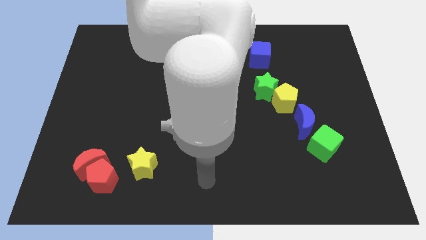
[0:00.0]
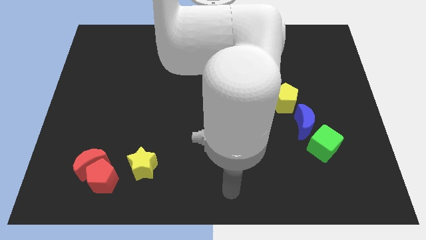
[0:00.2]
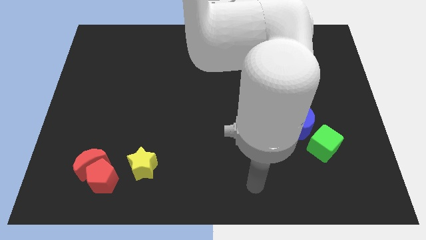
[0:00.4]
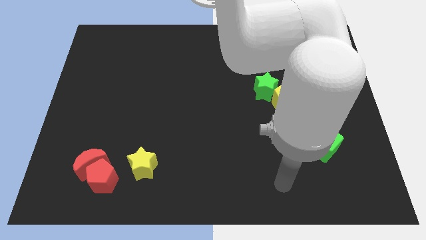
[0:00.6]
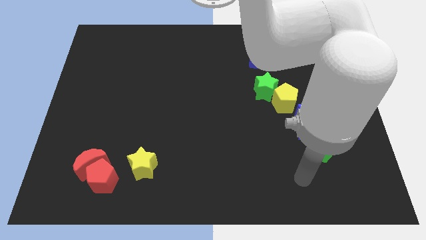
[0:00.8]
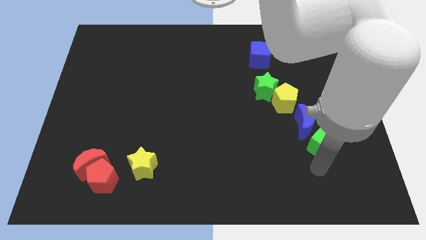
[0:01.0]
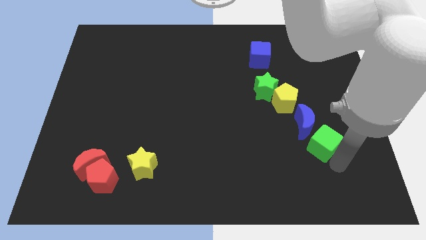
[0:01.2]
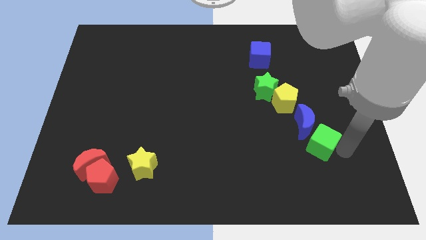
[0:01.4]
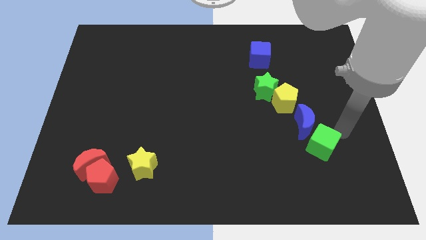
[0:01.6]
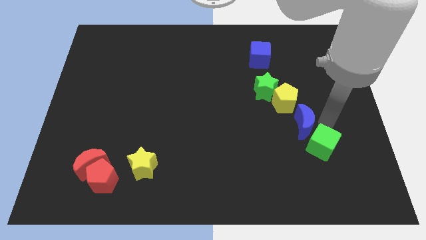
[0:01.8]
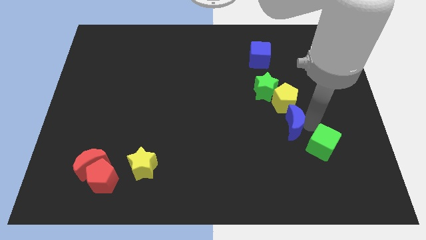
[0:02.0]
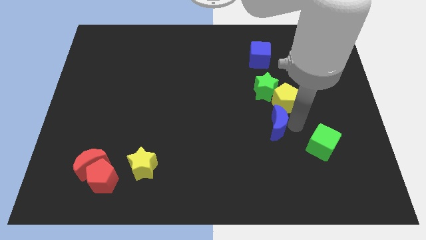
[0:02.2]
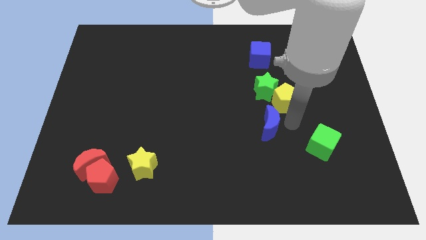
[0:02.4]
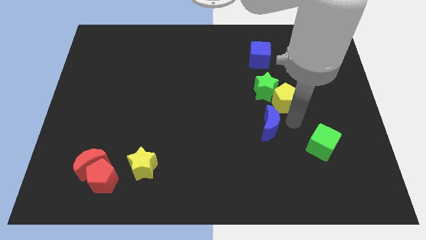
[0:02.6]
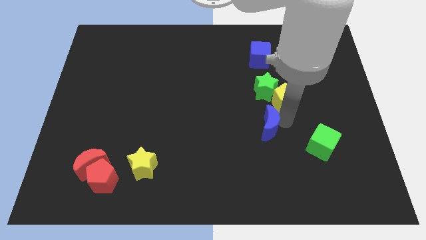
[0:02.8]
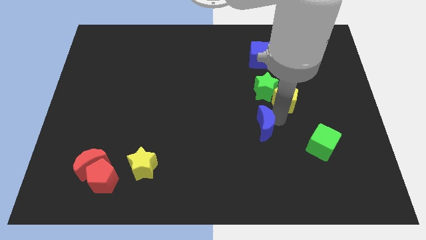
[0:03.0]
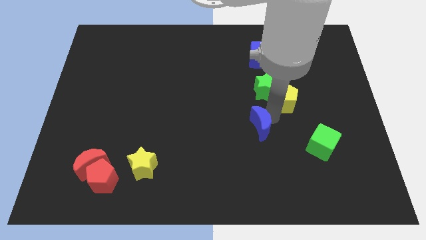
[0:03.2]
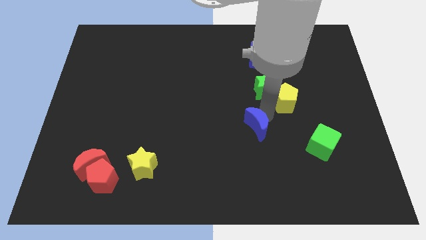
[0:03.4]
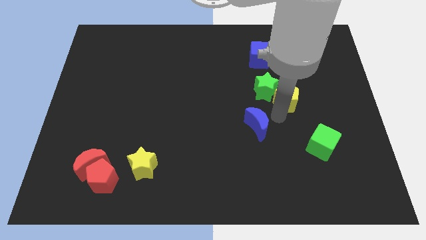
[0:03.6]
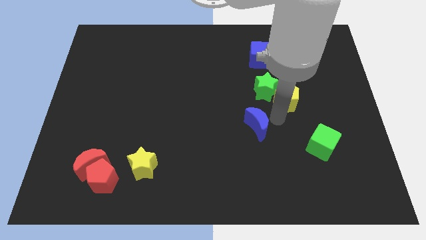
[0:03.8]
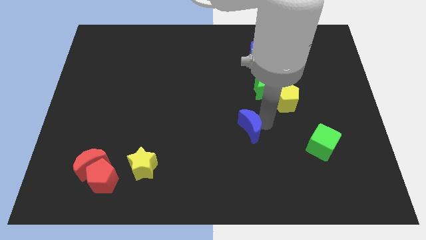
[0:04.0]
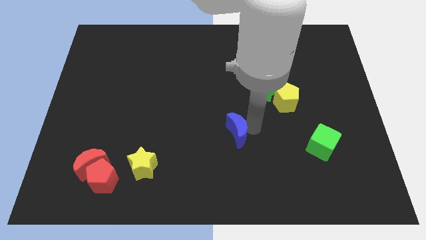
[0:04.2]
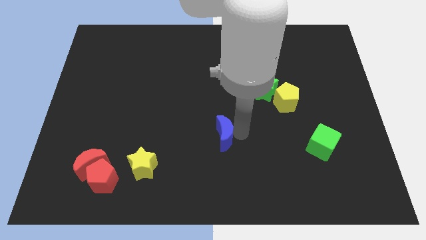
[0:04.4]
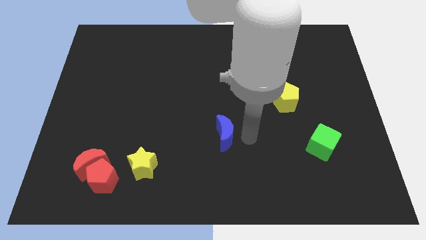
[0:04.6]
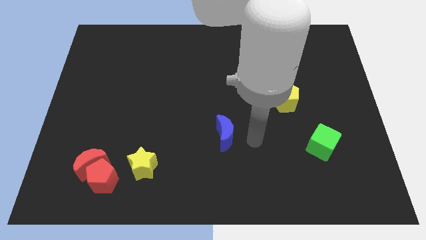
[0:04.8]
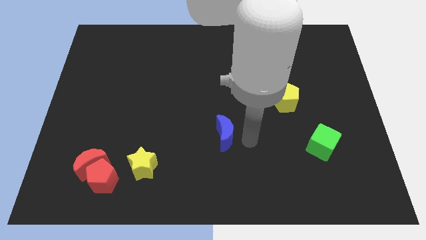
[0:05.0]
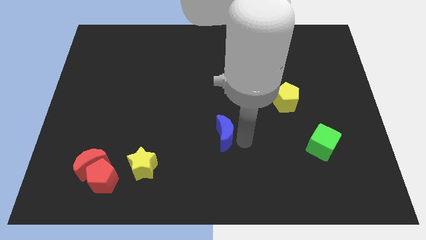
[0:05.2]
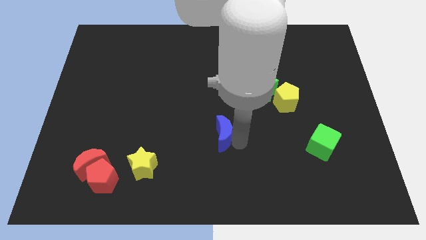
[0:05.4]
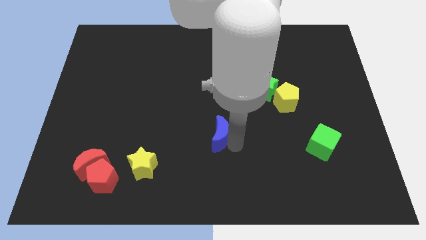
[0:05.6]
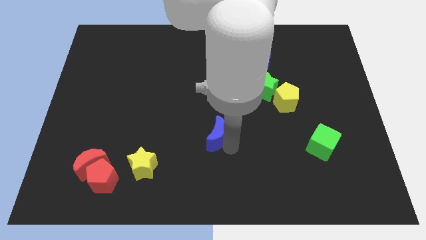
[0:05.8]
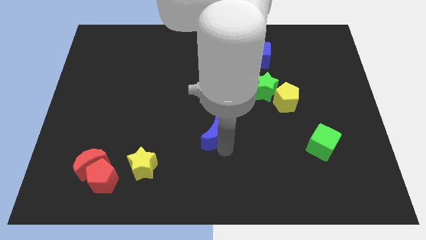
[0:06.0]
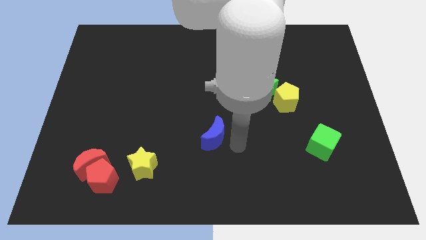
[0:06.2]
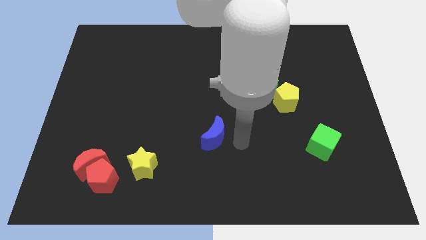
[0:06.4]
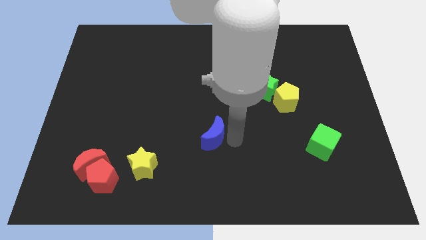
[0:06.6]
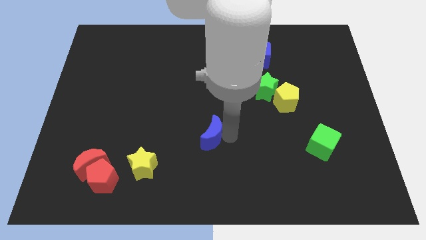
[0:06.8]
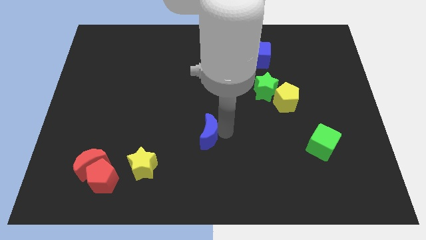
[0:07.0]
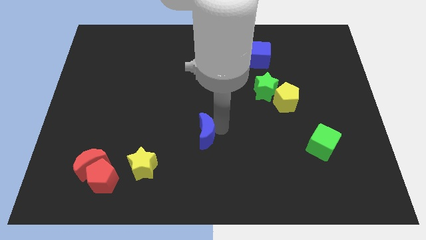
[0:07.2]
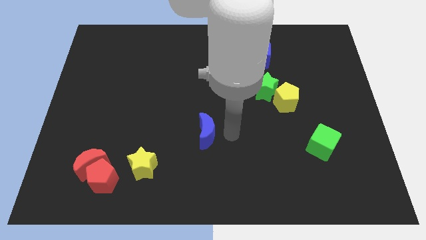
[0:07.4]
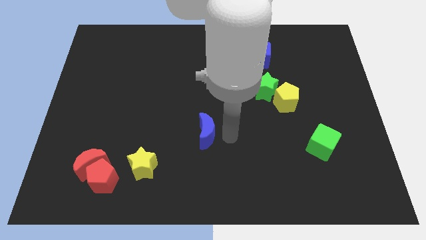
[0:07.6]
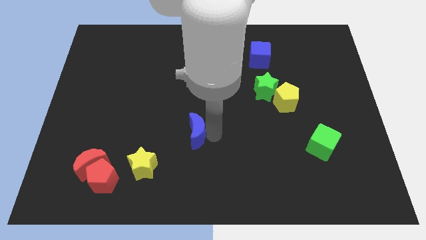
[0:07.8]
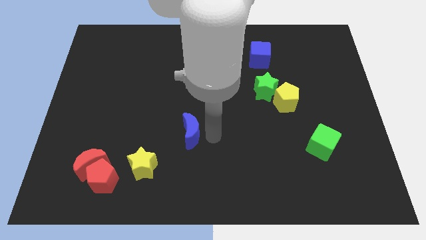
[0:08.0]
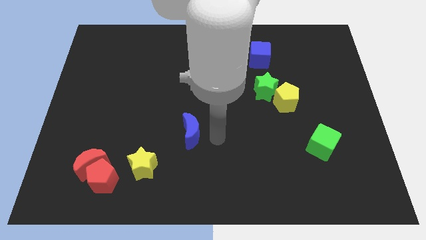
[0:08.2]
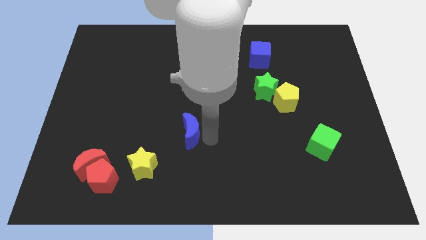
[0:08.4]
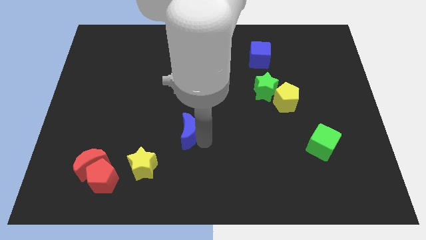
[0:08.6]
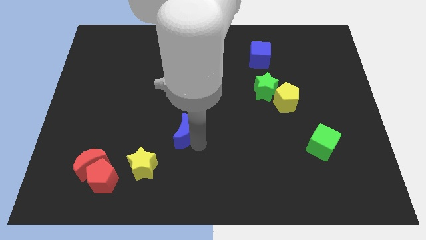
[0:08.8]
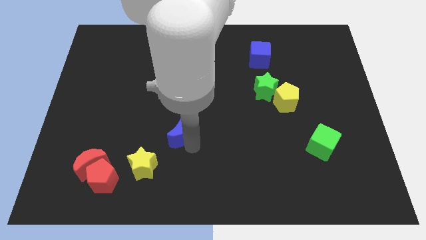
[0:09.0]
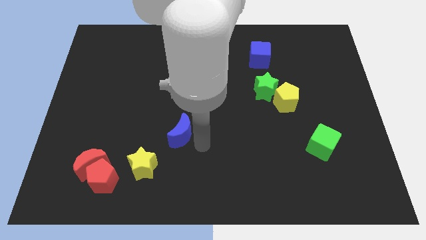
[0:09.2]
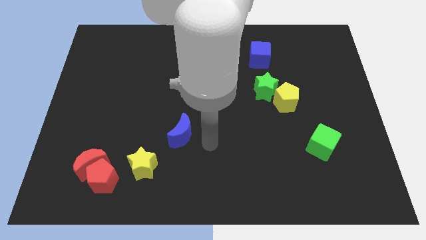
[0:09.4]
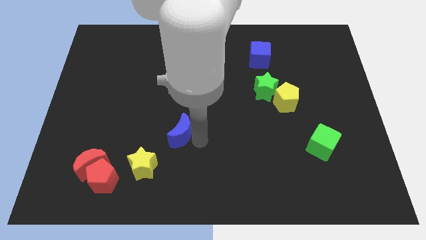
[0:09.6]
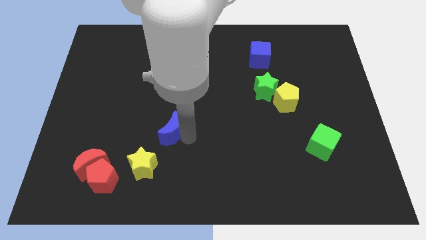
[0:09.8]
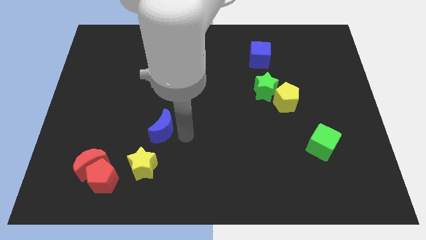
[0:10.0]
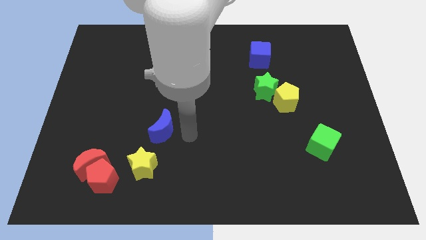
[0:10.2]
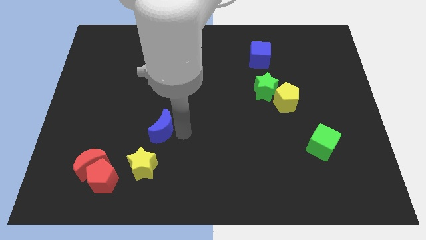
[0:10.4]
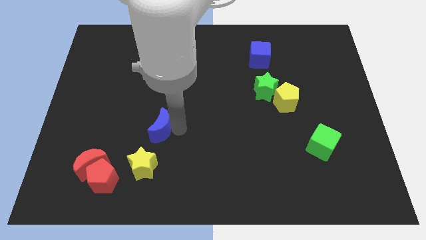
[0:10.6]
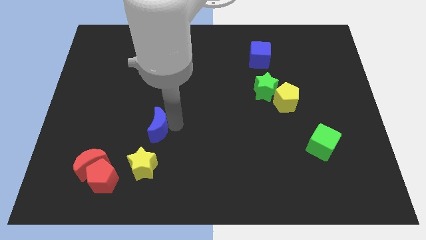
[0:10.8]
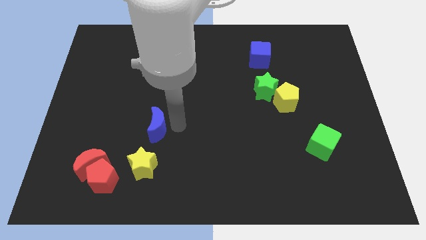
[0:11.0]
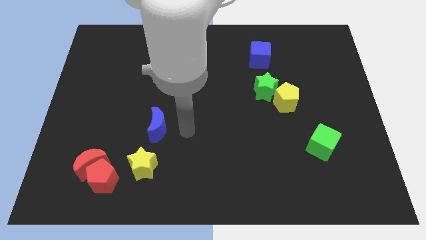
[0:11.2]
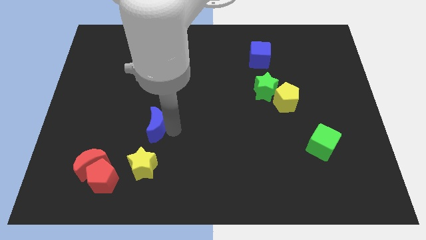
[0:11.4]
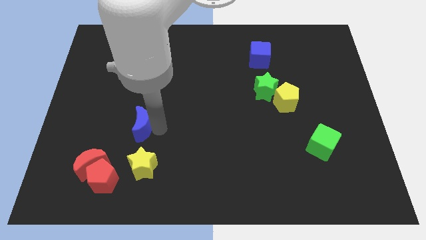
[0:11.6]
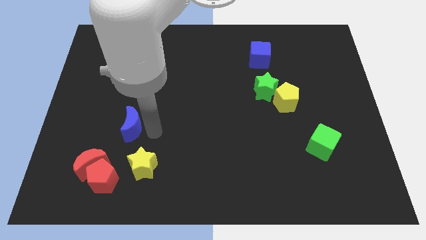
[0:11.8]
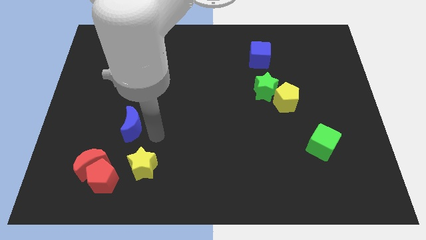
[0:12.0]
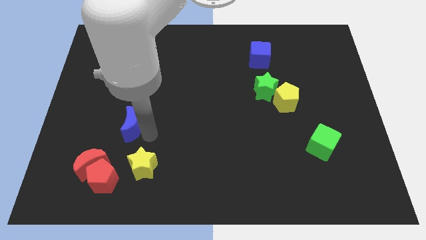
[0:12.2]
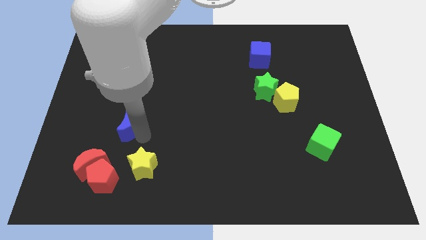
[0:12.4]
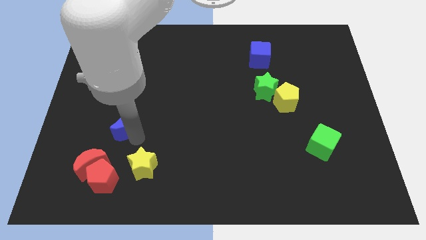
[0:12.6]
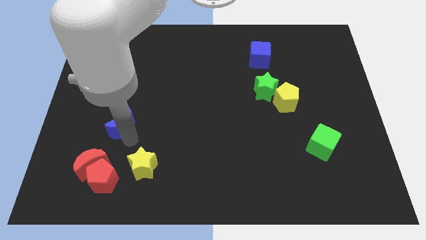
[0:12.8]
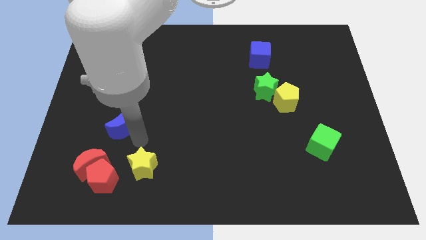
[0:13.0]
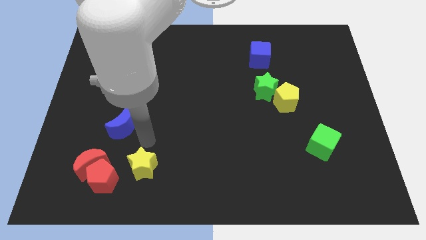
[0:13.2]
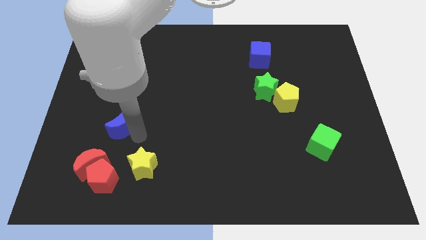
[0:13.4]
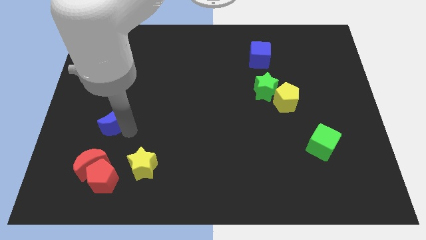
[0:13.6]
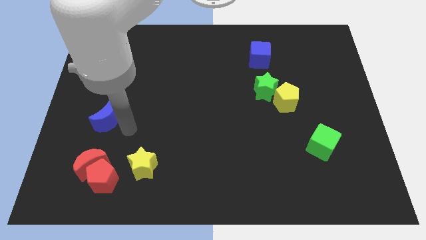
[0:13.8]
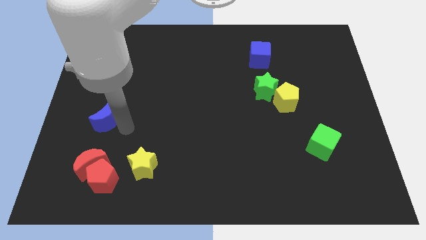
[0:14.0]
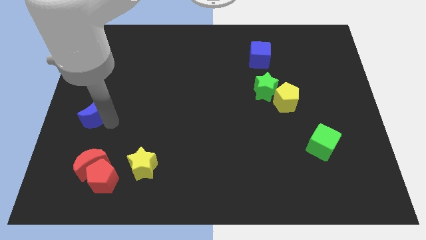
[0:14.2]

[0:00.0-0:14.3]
push the blue moon to the left side
